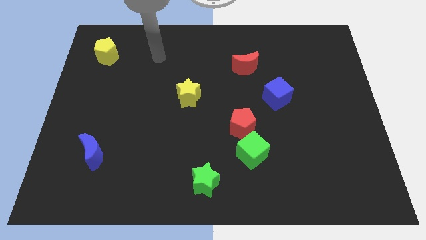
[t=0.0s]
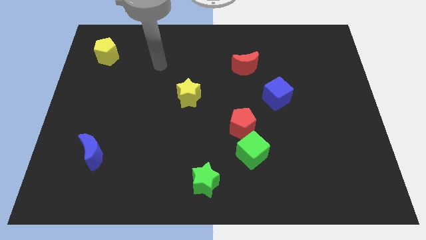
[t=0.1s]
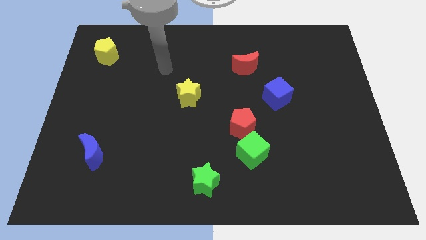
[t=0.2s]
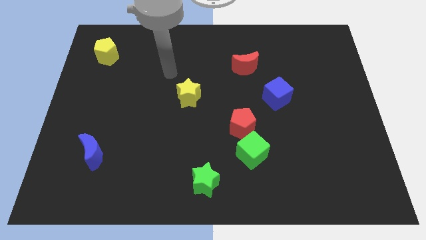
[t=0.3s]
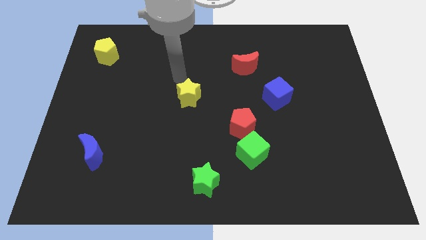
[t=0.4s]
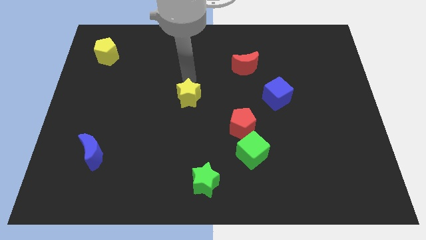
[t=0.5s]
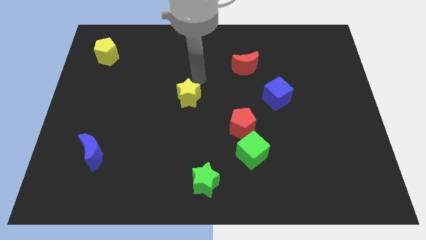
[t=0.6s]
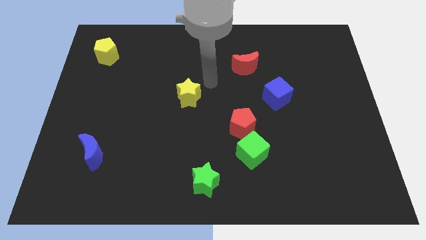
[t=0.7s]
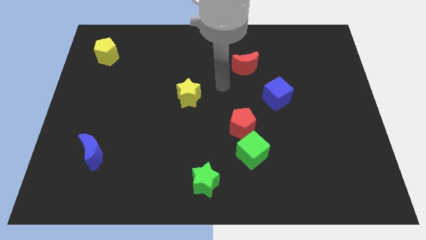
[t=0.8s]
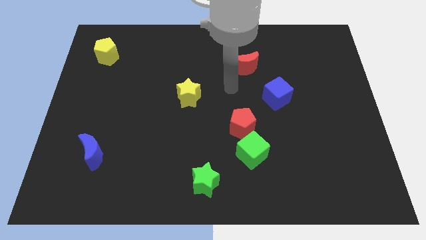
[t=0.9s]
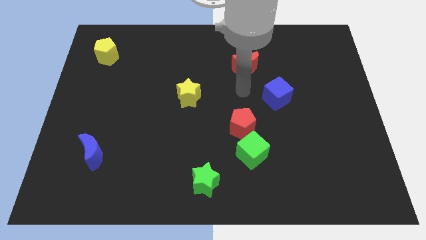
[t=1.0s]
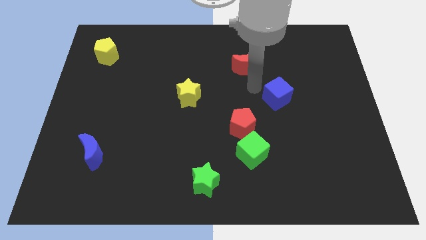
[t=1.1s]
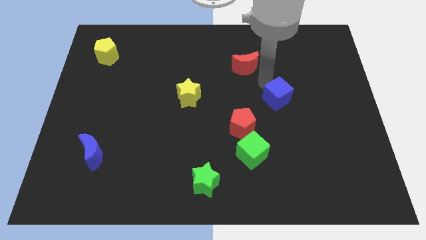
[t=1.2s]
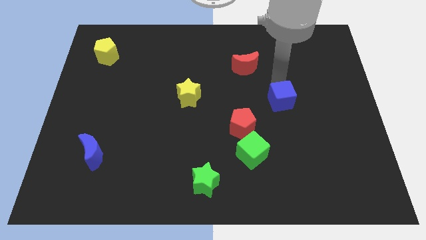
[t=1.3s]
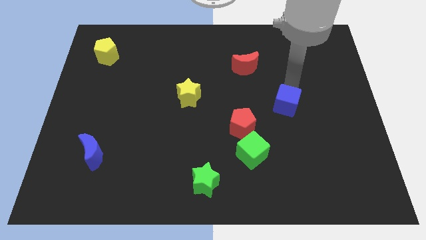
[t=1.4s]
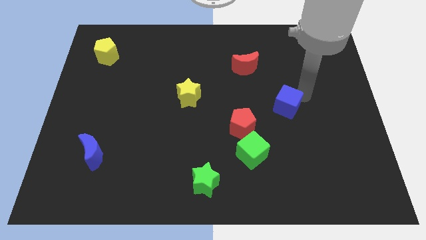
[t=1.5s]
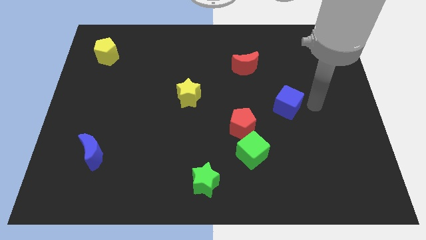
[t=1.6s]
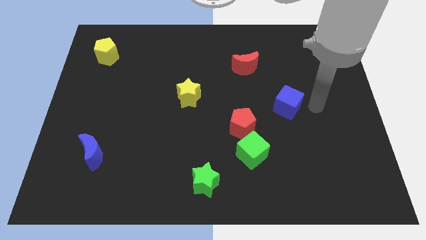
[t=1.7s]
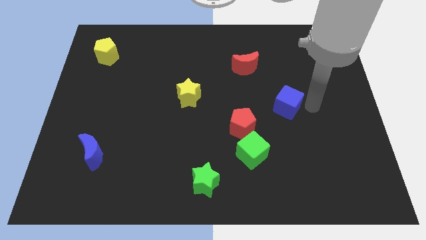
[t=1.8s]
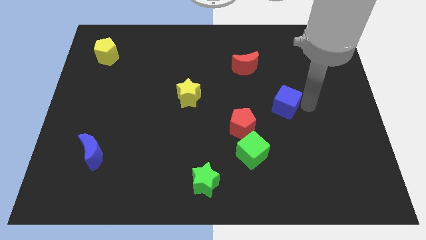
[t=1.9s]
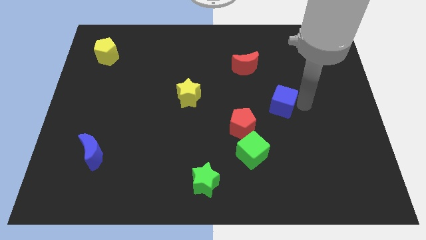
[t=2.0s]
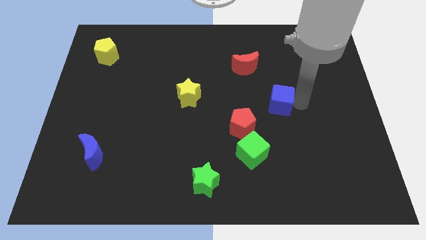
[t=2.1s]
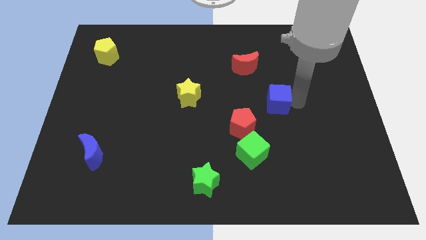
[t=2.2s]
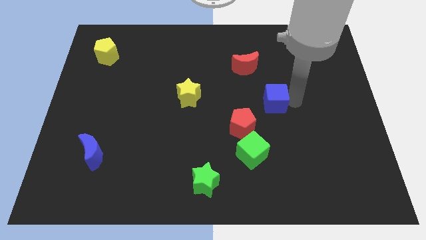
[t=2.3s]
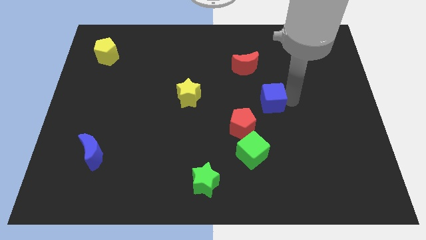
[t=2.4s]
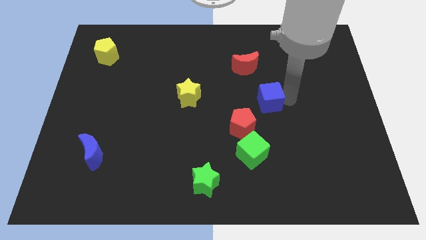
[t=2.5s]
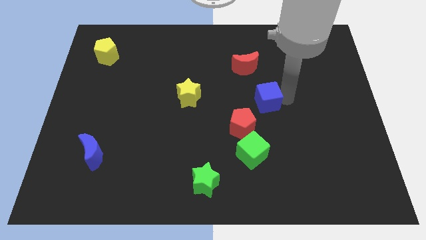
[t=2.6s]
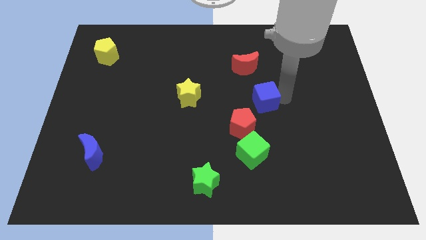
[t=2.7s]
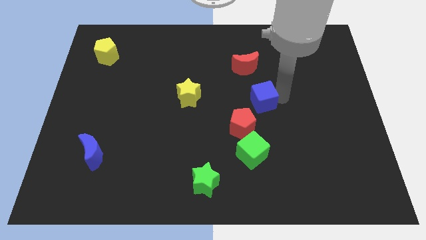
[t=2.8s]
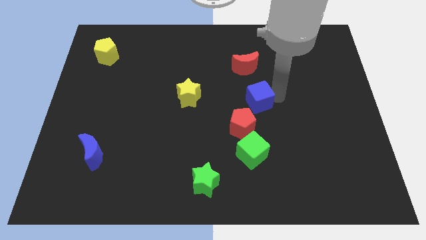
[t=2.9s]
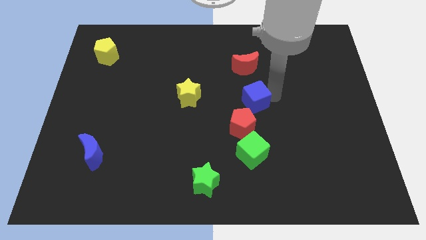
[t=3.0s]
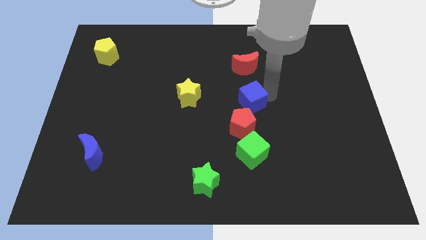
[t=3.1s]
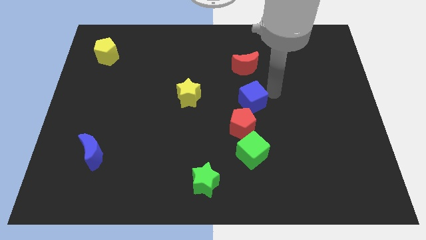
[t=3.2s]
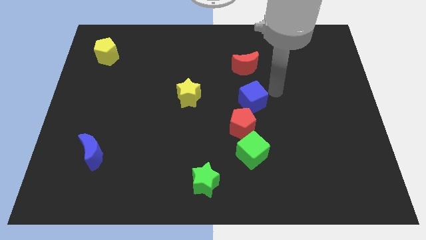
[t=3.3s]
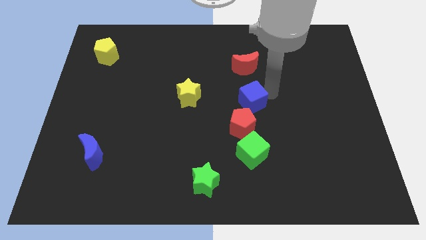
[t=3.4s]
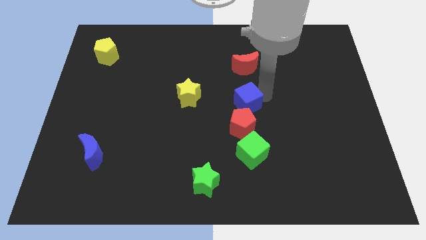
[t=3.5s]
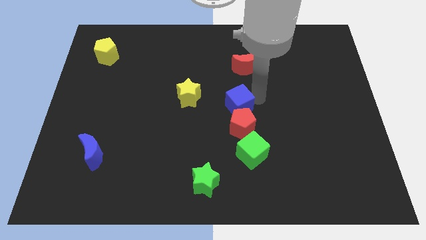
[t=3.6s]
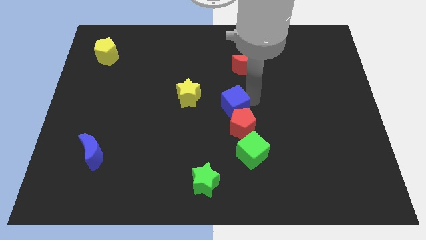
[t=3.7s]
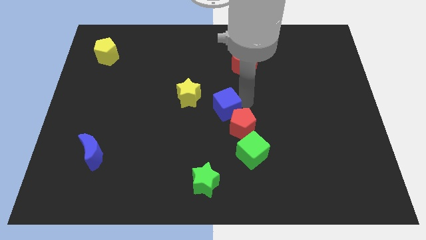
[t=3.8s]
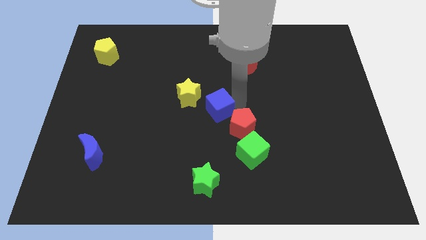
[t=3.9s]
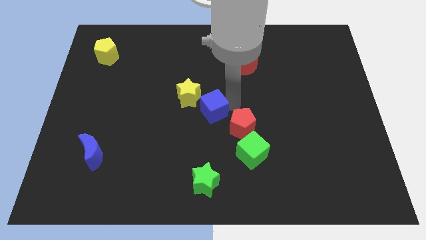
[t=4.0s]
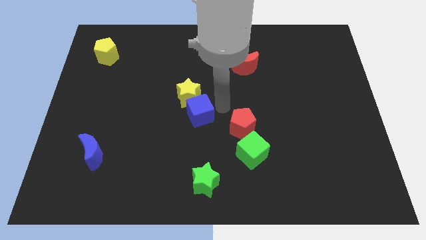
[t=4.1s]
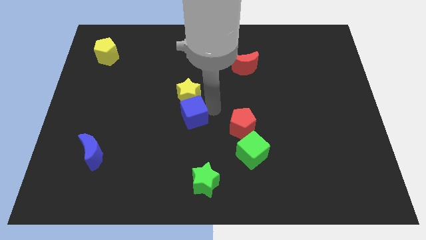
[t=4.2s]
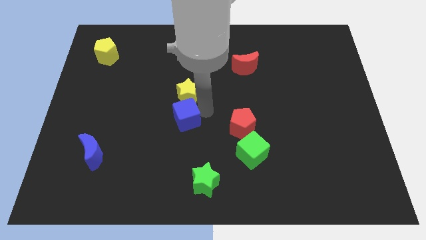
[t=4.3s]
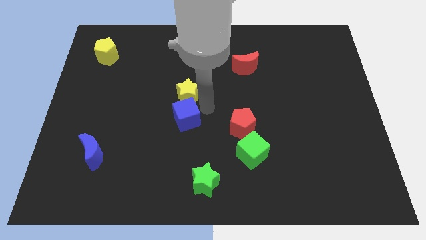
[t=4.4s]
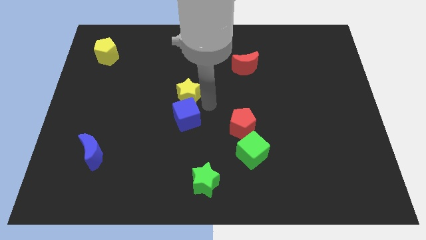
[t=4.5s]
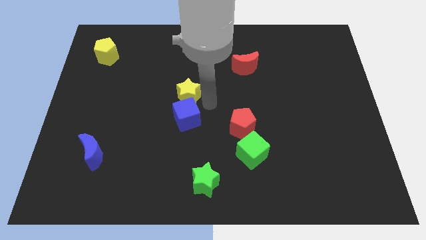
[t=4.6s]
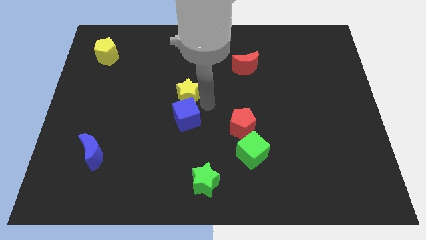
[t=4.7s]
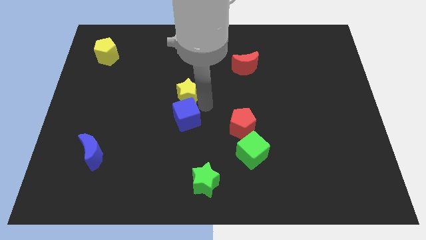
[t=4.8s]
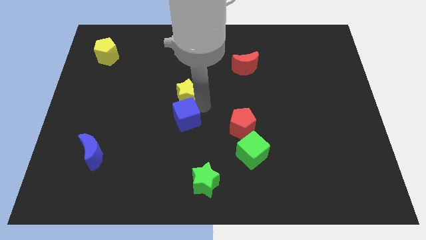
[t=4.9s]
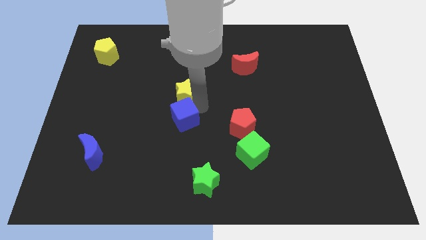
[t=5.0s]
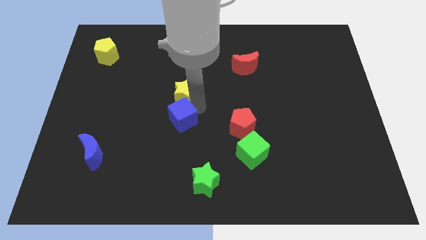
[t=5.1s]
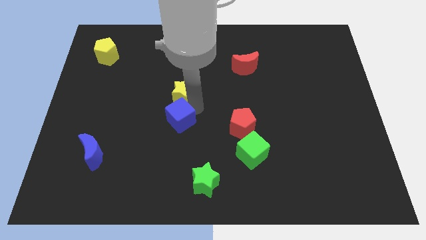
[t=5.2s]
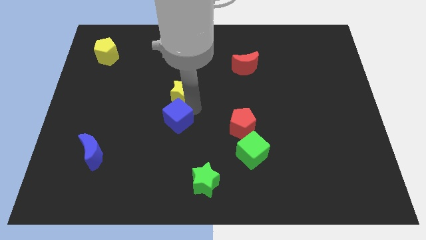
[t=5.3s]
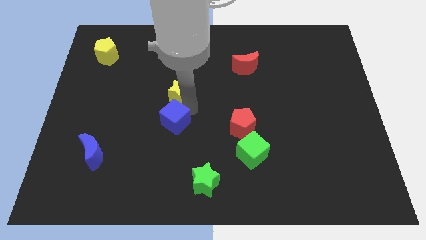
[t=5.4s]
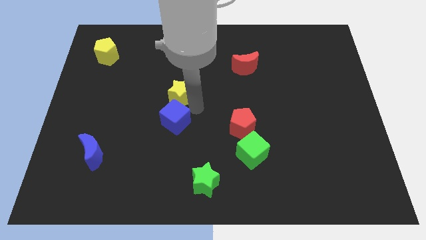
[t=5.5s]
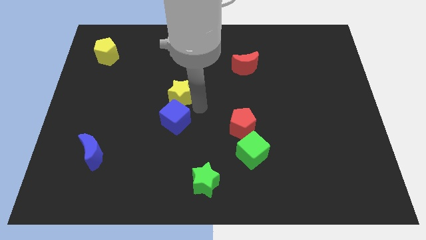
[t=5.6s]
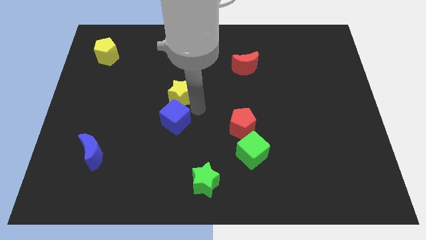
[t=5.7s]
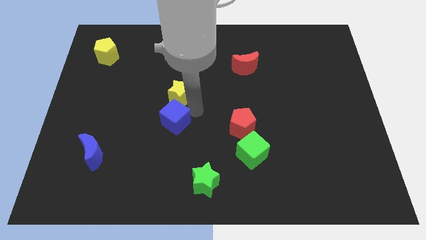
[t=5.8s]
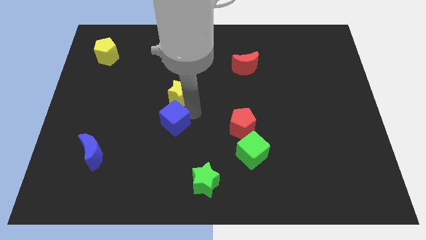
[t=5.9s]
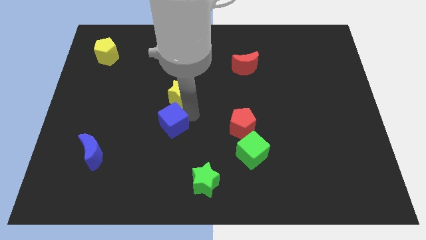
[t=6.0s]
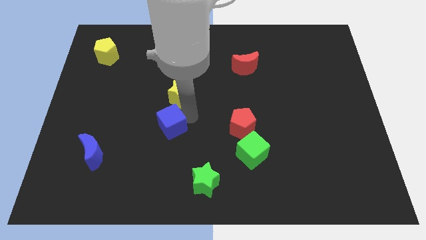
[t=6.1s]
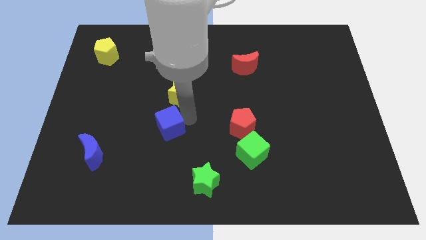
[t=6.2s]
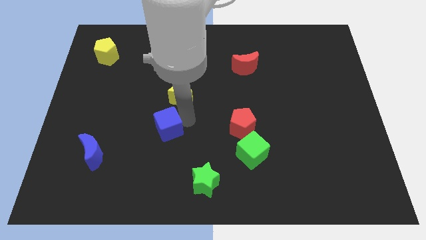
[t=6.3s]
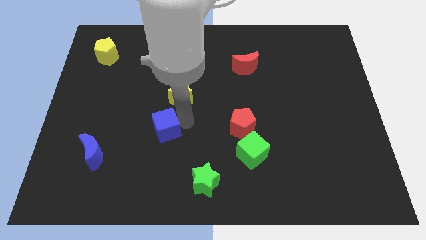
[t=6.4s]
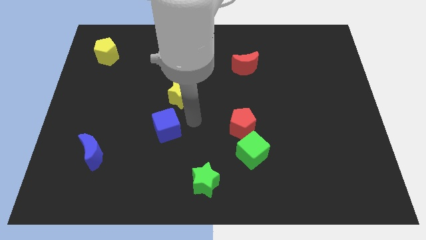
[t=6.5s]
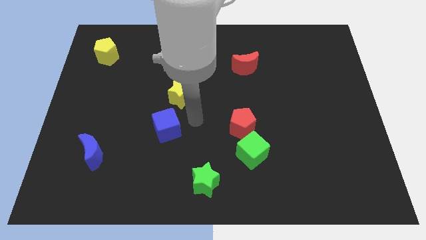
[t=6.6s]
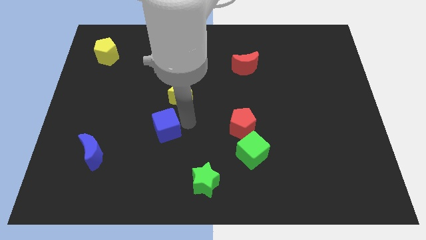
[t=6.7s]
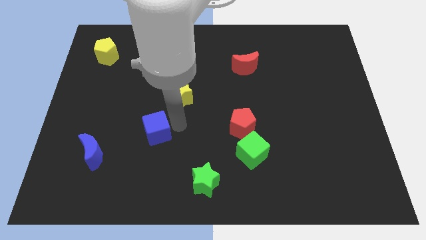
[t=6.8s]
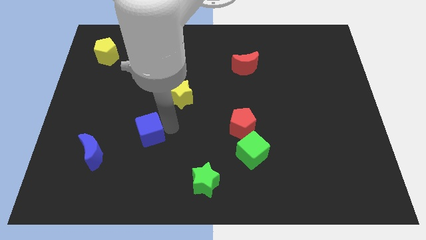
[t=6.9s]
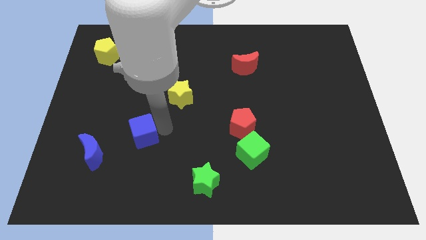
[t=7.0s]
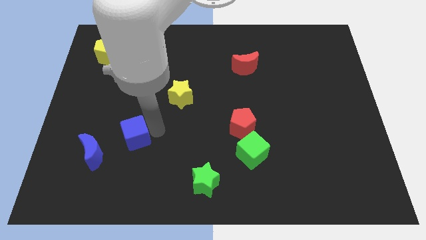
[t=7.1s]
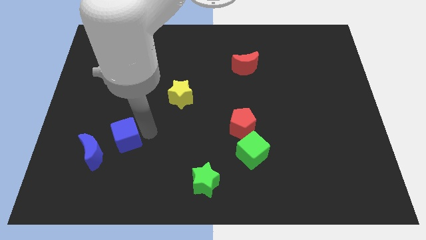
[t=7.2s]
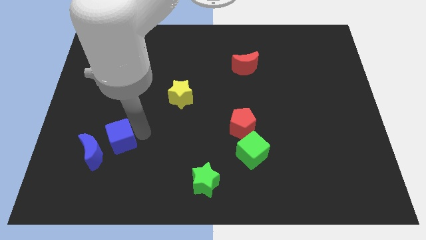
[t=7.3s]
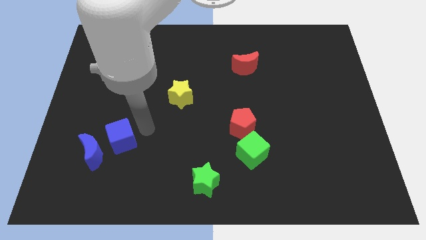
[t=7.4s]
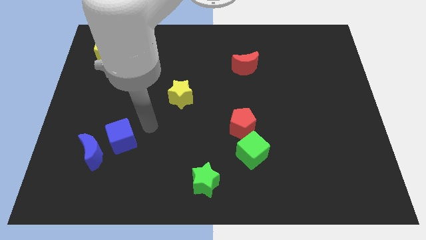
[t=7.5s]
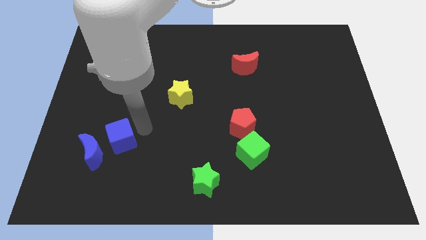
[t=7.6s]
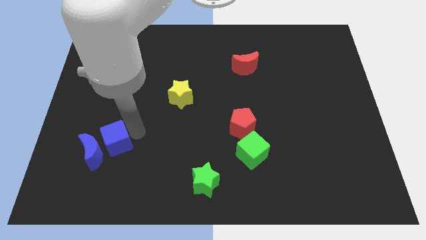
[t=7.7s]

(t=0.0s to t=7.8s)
move the blue cube towards the blue moon
